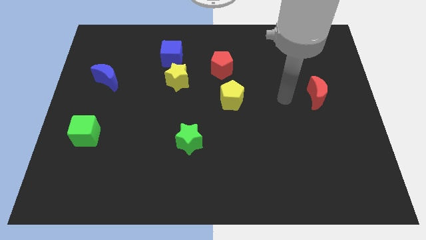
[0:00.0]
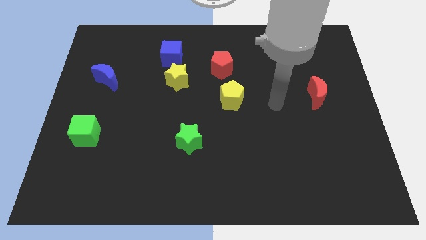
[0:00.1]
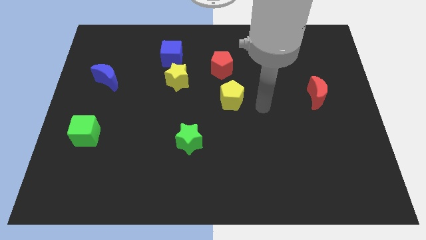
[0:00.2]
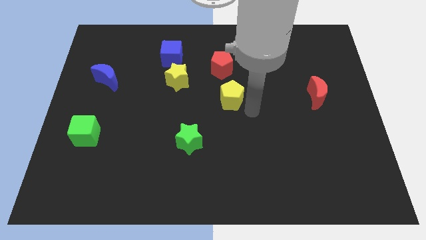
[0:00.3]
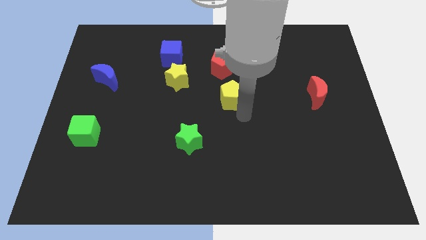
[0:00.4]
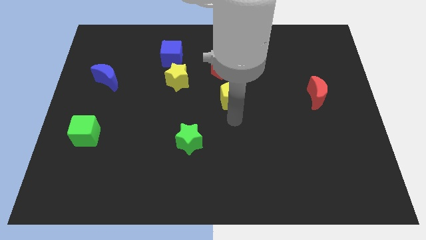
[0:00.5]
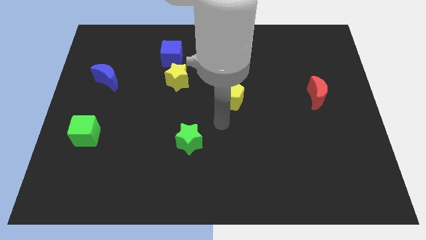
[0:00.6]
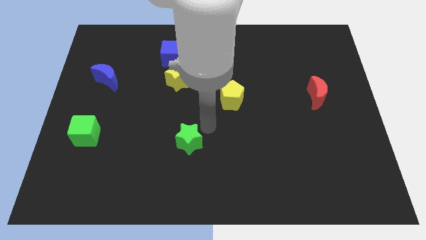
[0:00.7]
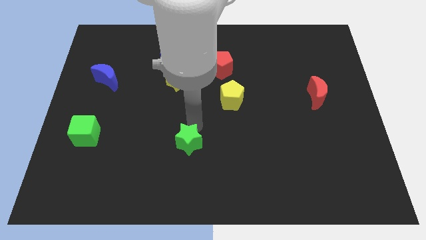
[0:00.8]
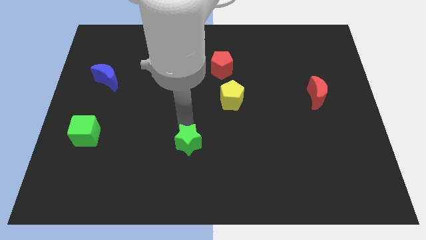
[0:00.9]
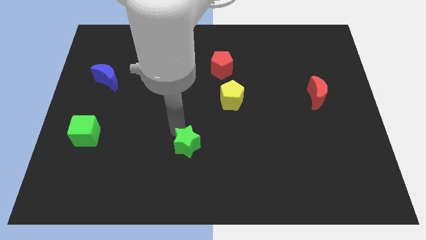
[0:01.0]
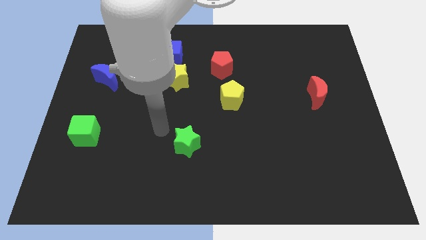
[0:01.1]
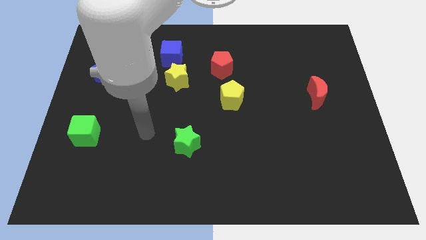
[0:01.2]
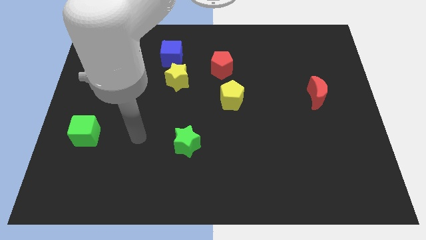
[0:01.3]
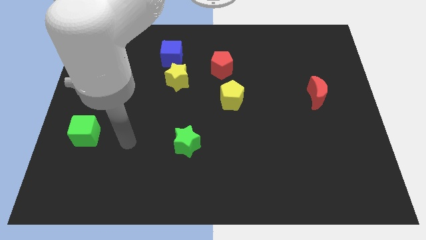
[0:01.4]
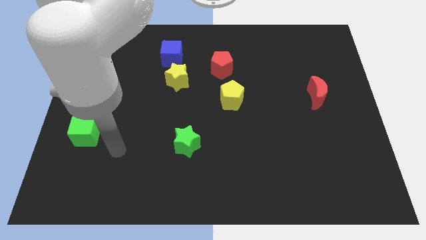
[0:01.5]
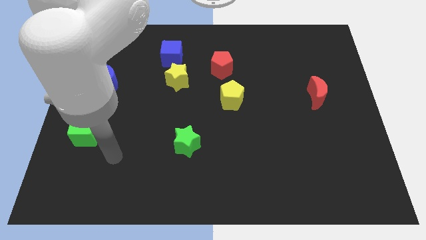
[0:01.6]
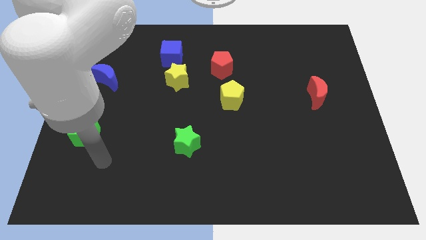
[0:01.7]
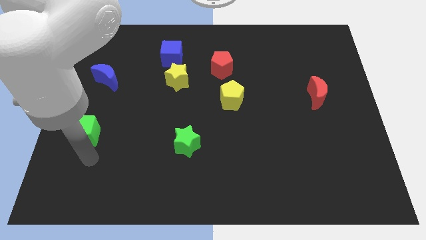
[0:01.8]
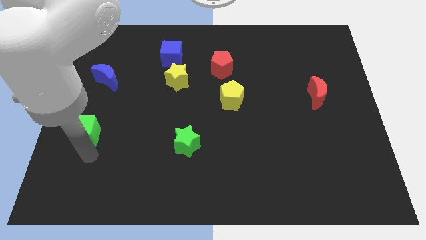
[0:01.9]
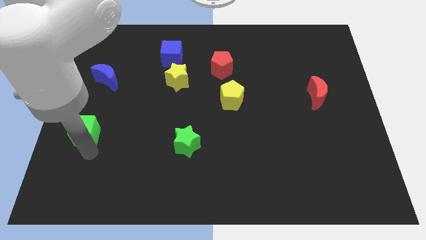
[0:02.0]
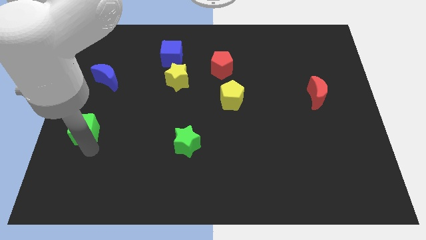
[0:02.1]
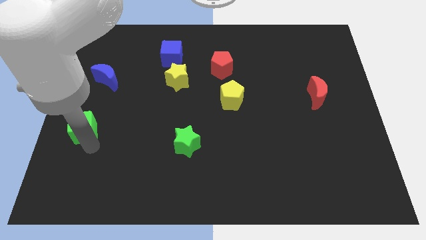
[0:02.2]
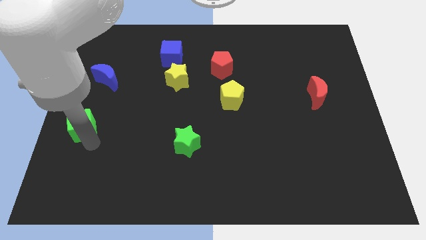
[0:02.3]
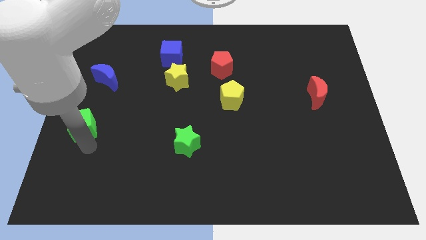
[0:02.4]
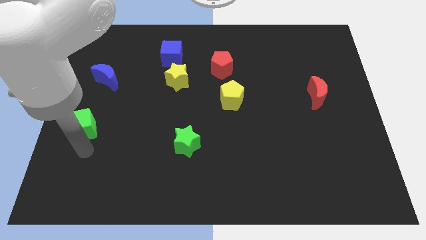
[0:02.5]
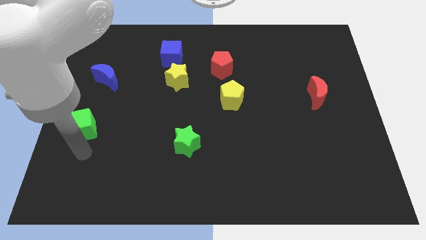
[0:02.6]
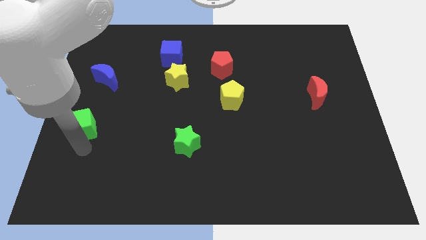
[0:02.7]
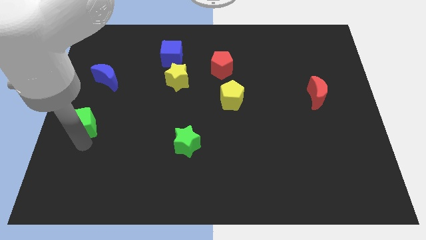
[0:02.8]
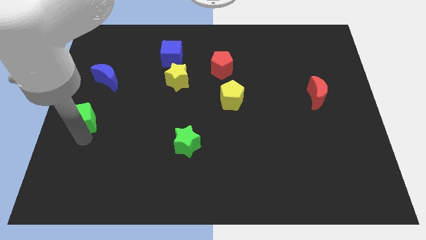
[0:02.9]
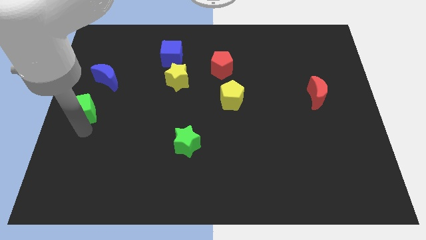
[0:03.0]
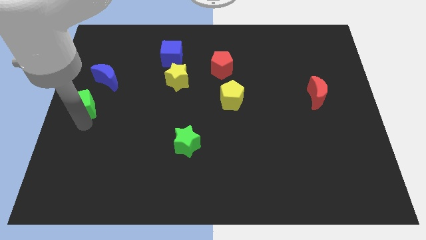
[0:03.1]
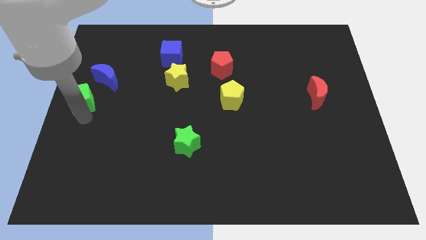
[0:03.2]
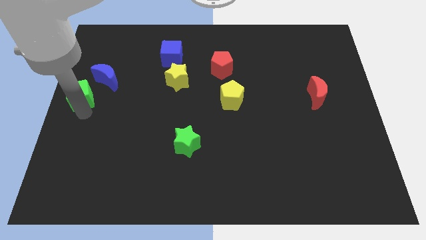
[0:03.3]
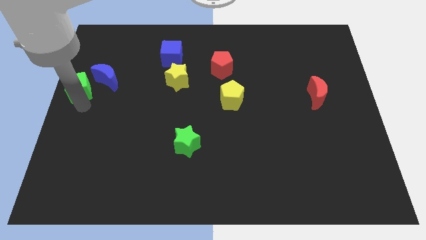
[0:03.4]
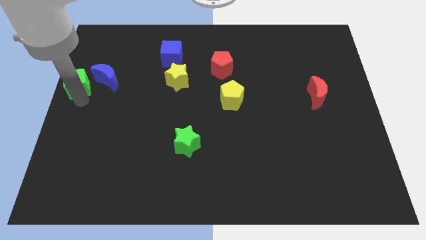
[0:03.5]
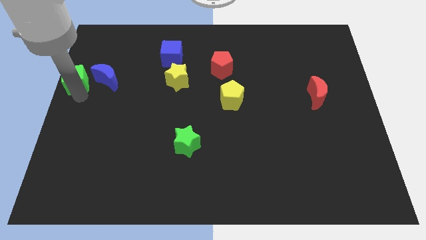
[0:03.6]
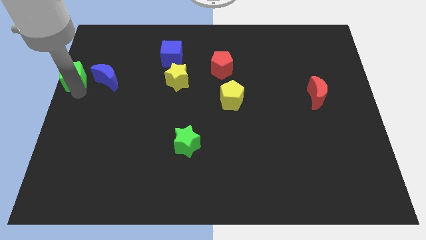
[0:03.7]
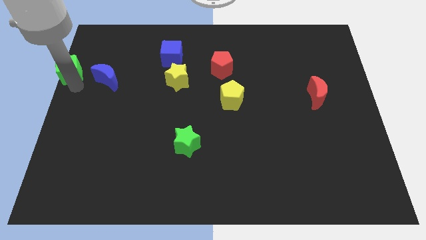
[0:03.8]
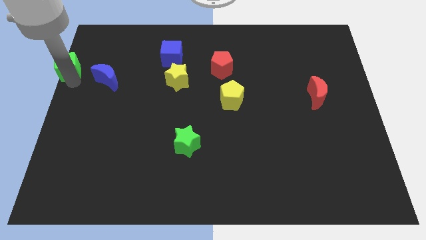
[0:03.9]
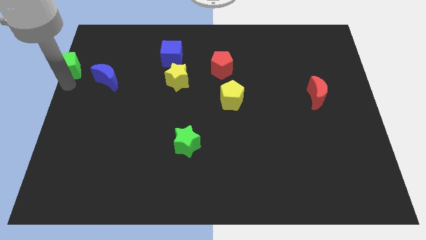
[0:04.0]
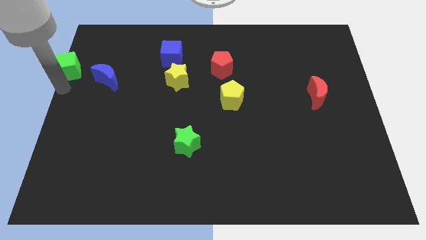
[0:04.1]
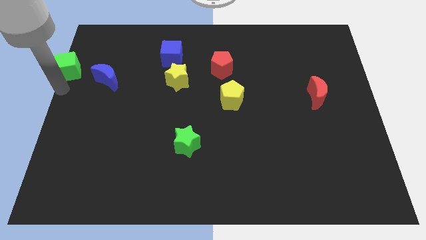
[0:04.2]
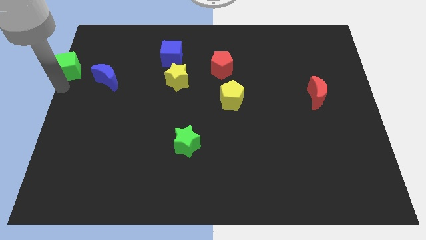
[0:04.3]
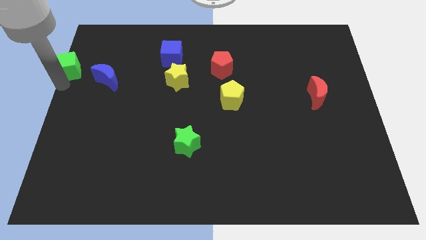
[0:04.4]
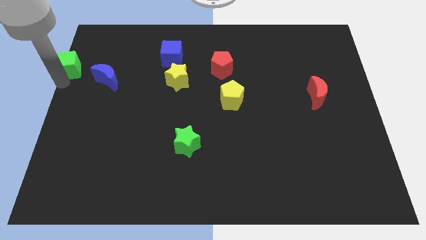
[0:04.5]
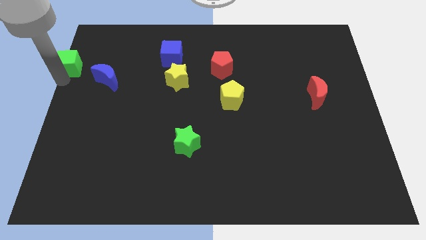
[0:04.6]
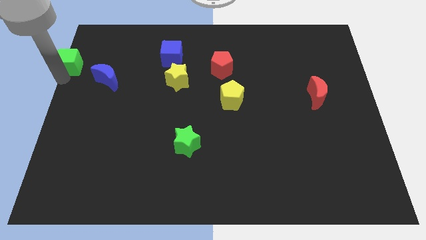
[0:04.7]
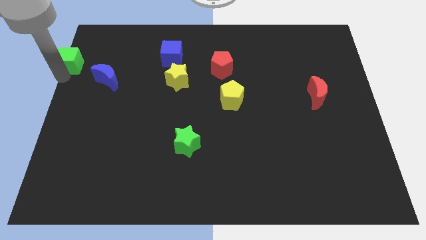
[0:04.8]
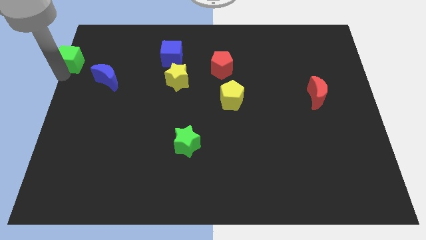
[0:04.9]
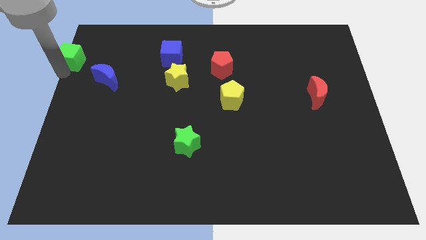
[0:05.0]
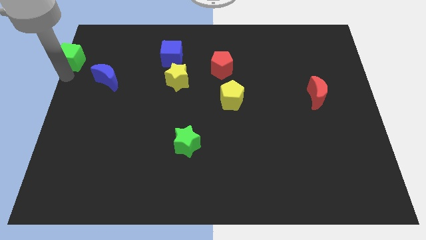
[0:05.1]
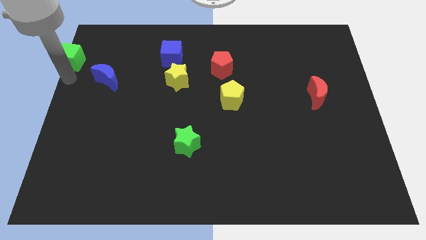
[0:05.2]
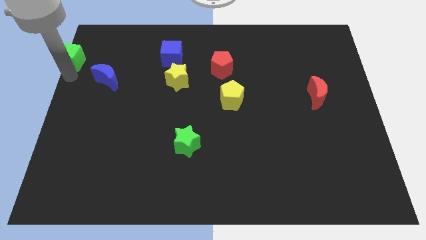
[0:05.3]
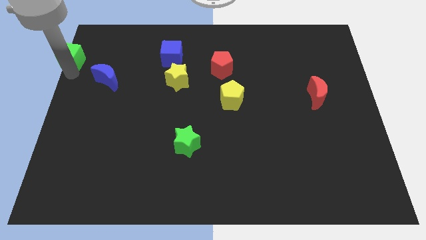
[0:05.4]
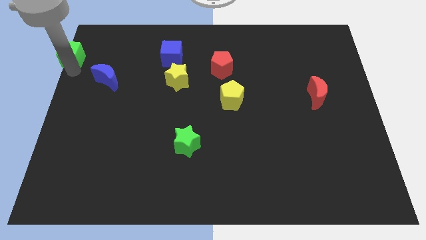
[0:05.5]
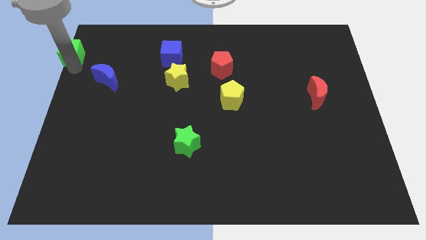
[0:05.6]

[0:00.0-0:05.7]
push the green cube to the top left corner
